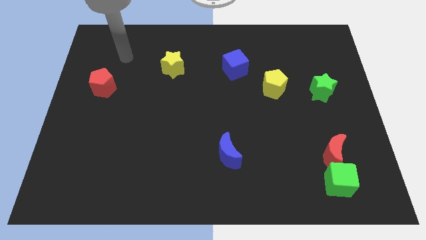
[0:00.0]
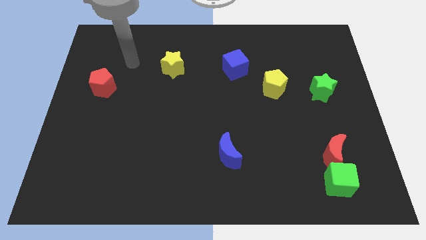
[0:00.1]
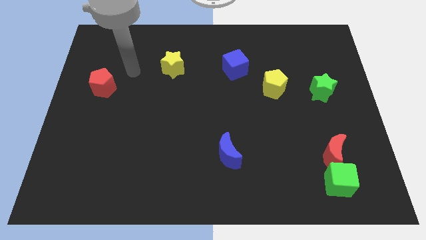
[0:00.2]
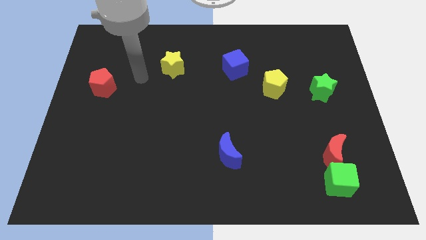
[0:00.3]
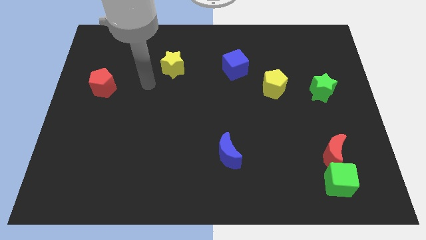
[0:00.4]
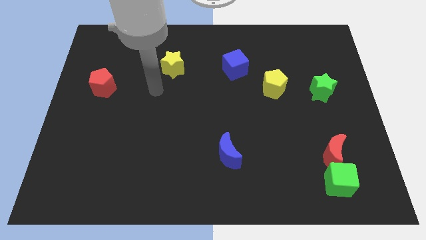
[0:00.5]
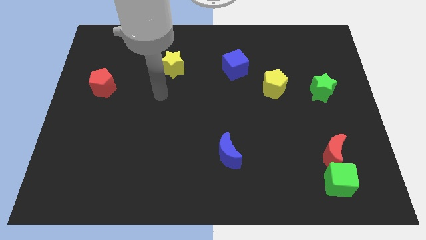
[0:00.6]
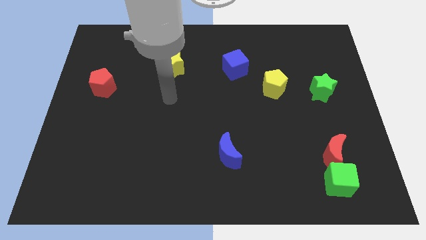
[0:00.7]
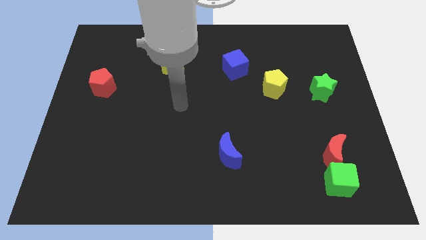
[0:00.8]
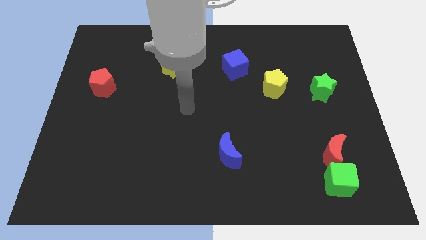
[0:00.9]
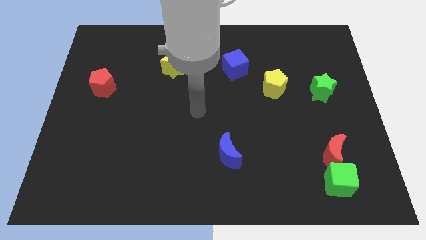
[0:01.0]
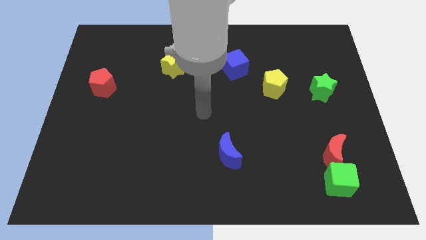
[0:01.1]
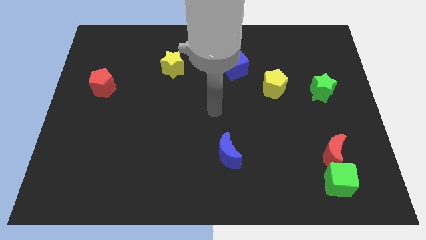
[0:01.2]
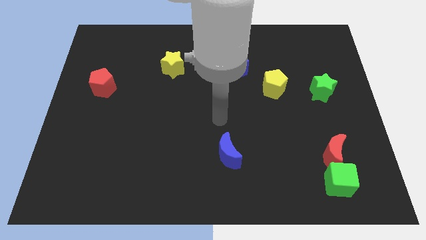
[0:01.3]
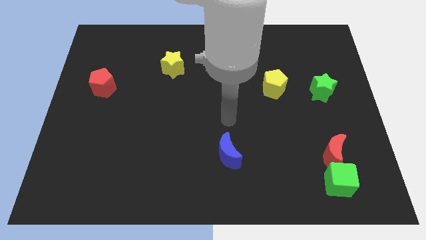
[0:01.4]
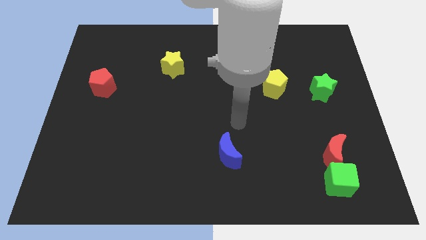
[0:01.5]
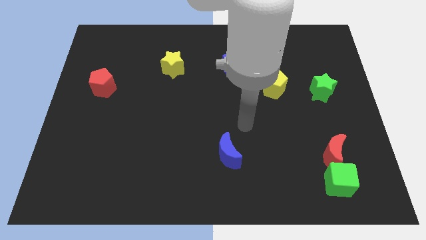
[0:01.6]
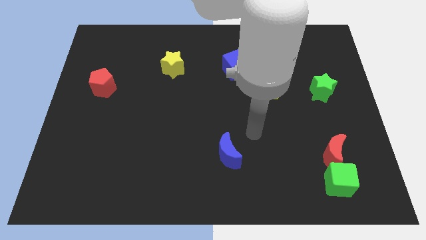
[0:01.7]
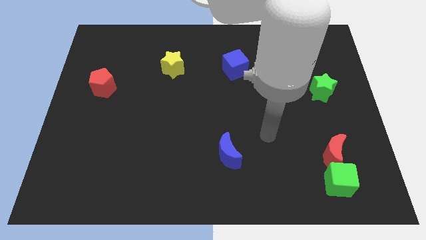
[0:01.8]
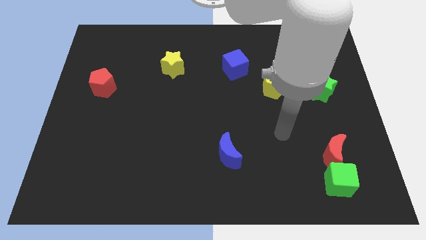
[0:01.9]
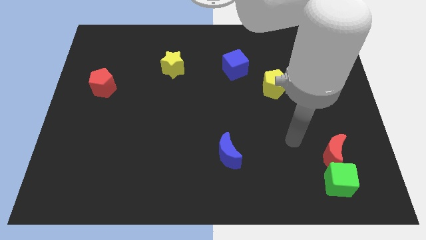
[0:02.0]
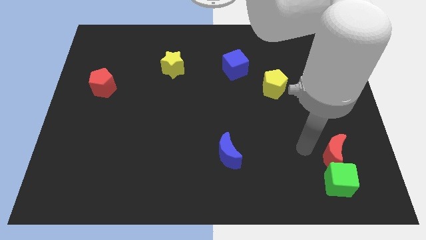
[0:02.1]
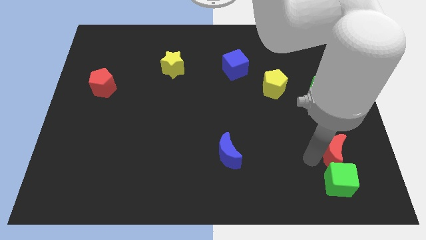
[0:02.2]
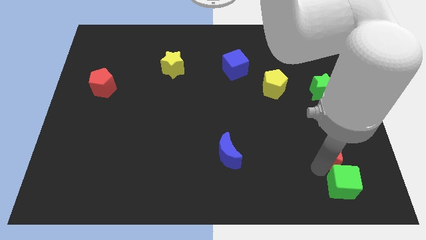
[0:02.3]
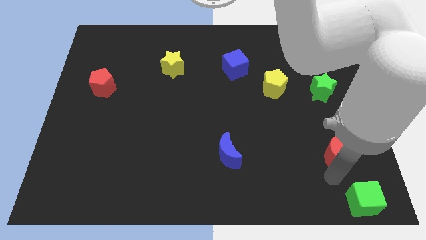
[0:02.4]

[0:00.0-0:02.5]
move the red moon away from the green cube

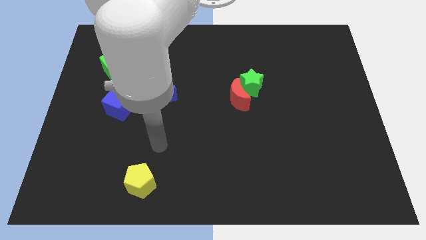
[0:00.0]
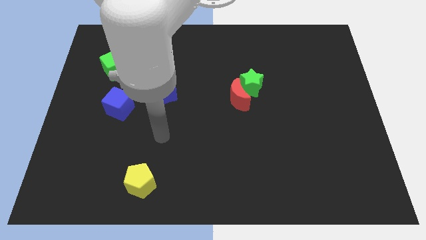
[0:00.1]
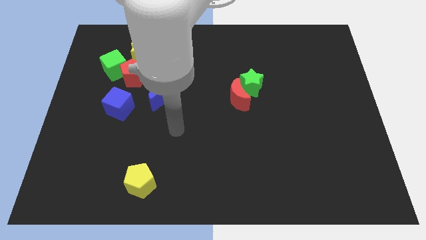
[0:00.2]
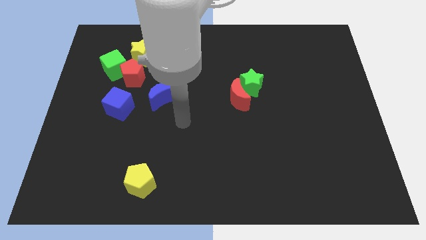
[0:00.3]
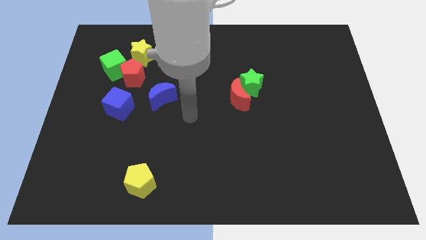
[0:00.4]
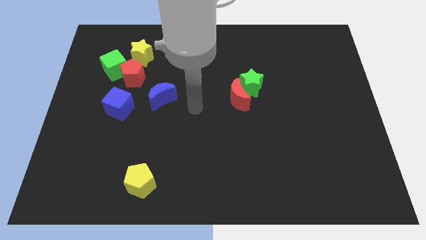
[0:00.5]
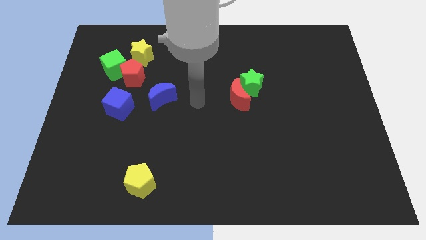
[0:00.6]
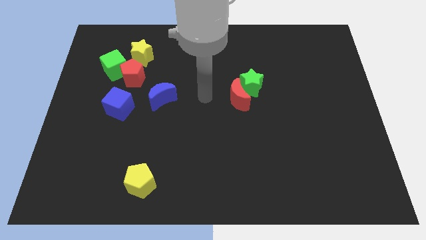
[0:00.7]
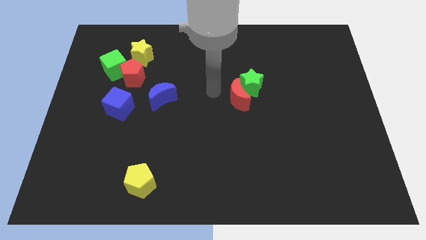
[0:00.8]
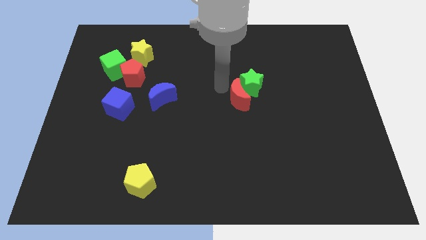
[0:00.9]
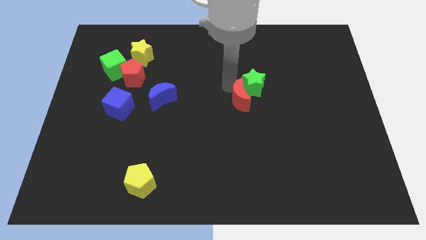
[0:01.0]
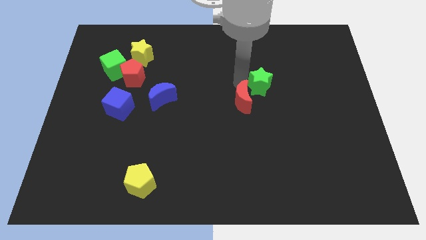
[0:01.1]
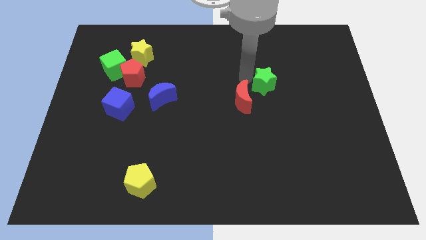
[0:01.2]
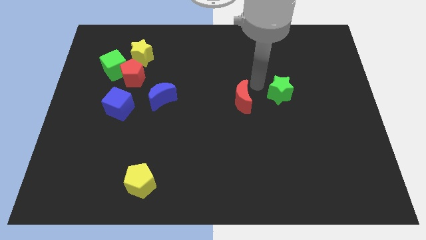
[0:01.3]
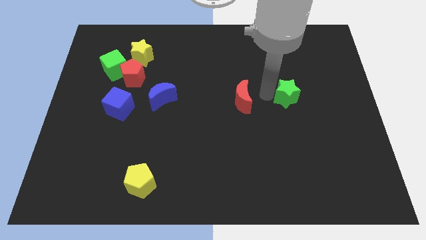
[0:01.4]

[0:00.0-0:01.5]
move the red moon away from the green star

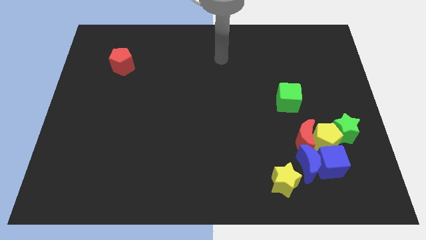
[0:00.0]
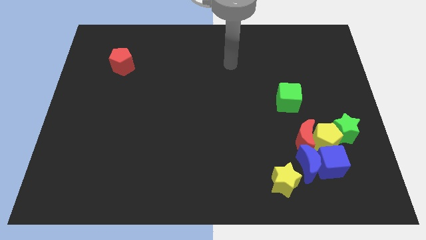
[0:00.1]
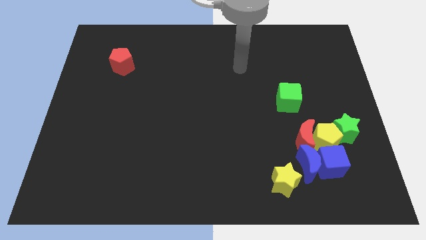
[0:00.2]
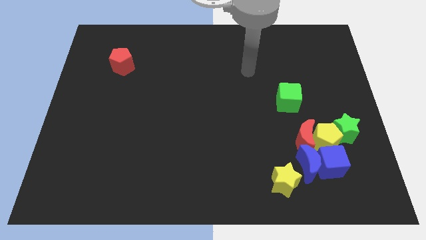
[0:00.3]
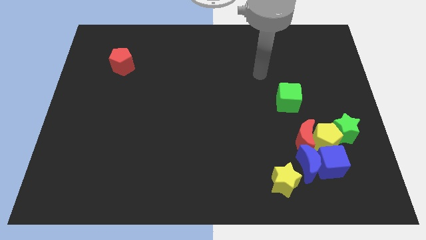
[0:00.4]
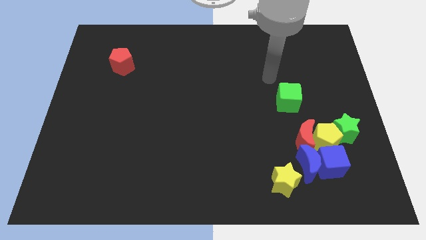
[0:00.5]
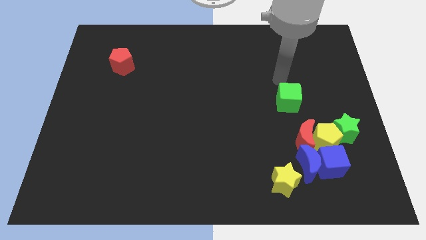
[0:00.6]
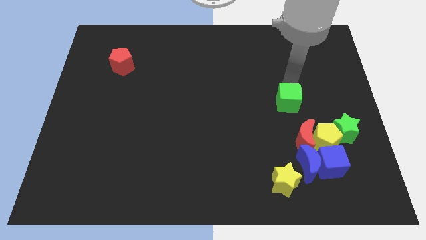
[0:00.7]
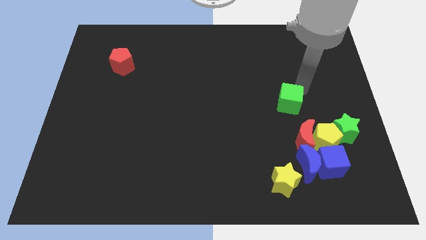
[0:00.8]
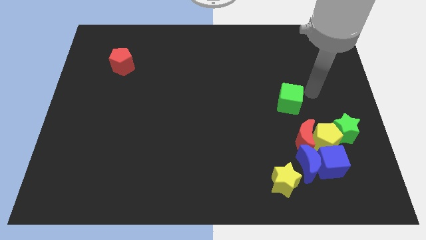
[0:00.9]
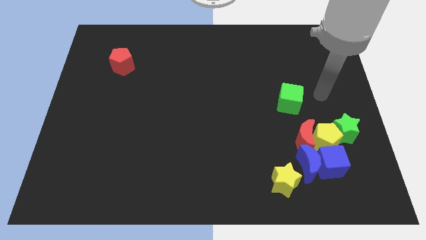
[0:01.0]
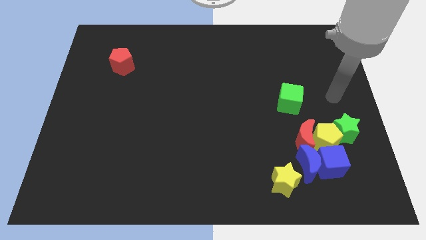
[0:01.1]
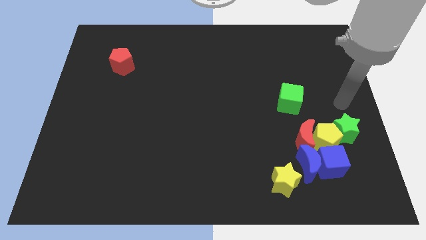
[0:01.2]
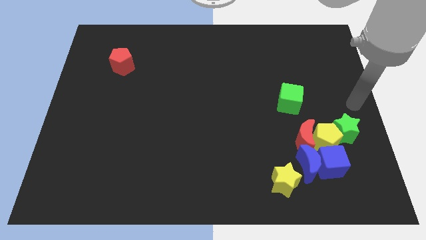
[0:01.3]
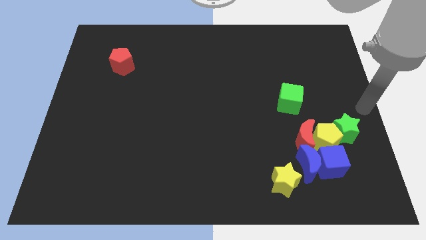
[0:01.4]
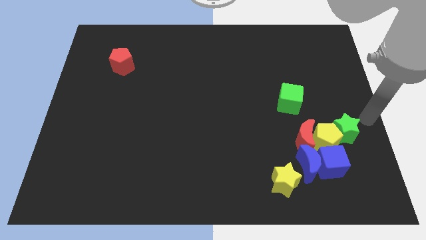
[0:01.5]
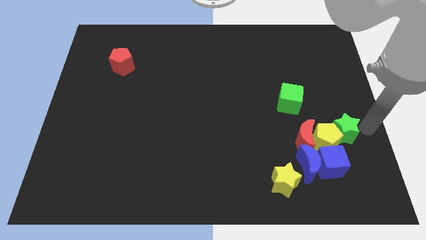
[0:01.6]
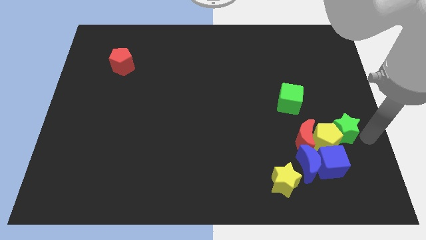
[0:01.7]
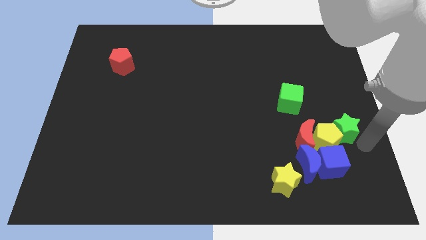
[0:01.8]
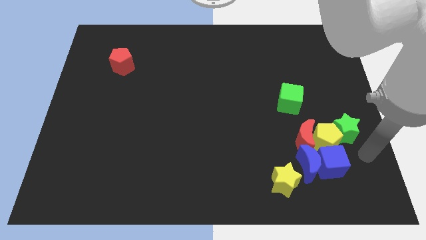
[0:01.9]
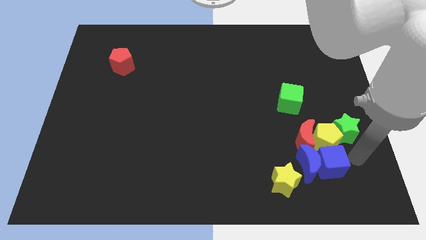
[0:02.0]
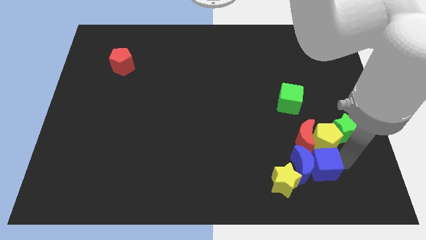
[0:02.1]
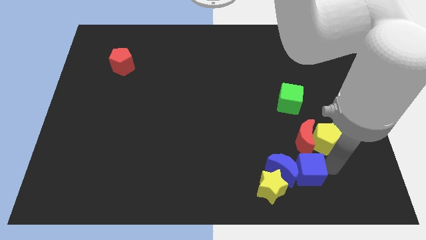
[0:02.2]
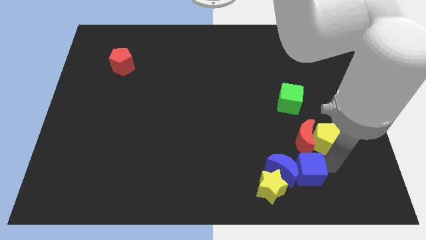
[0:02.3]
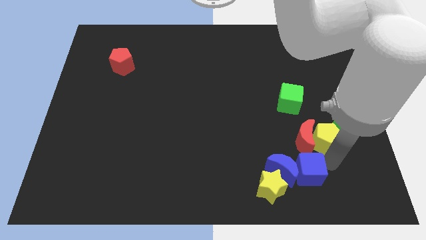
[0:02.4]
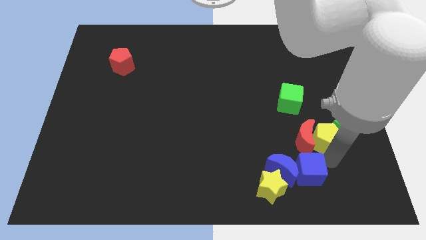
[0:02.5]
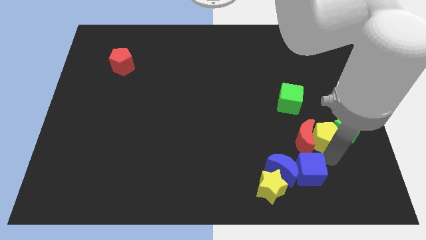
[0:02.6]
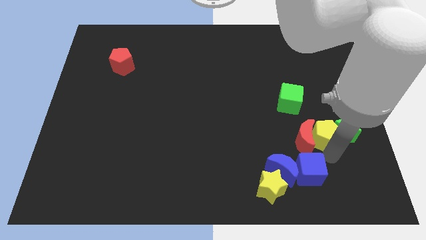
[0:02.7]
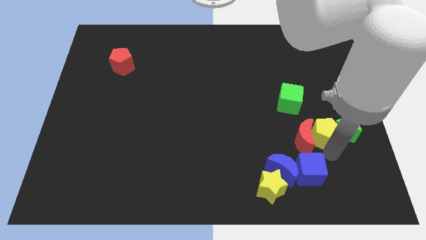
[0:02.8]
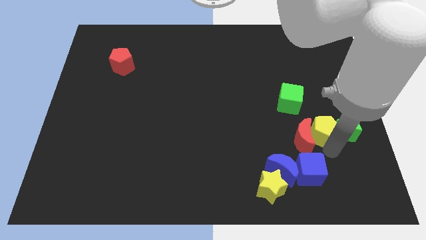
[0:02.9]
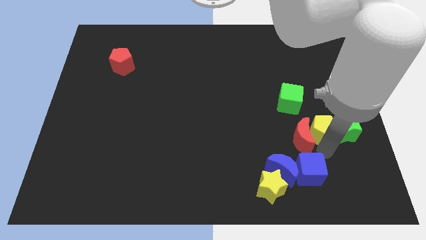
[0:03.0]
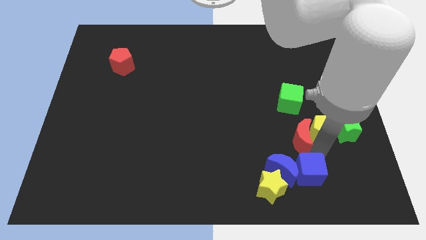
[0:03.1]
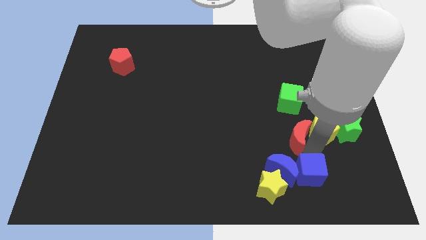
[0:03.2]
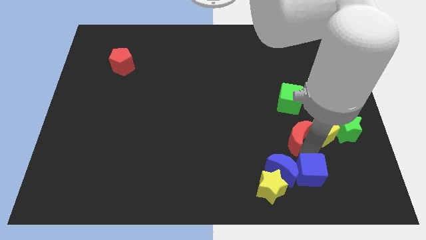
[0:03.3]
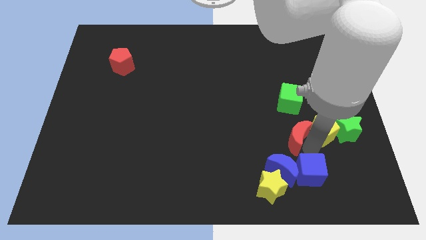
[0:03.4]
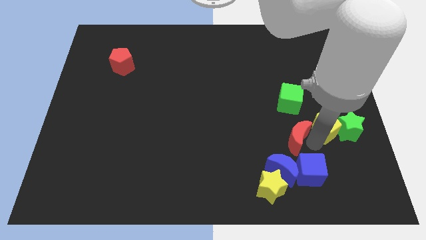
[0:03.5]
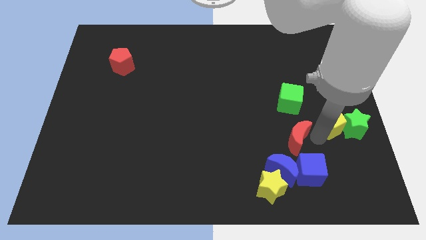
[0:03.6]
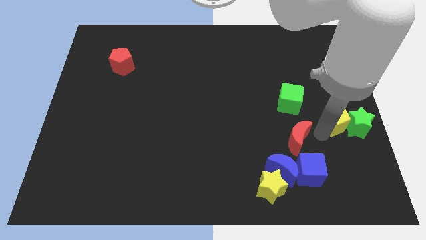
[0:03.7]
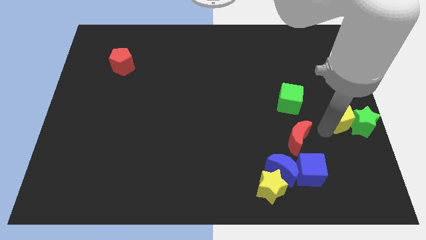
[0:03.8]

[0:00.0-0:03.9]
separate the yellow pentagon from the group

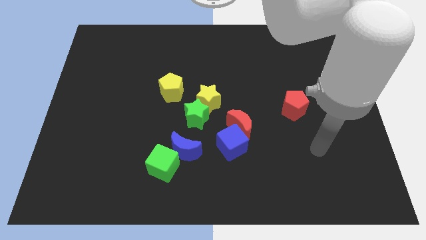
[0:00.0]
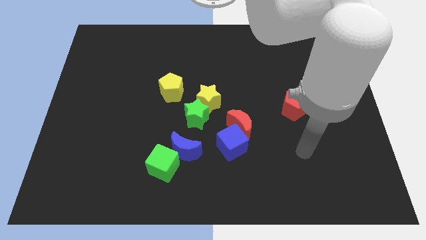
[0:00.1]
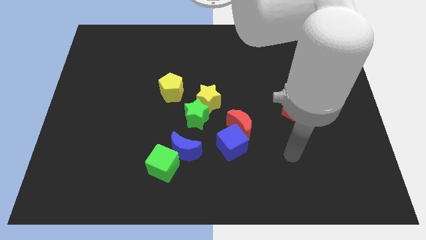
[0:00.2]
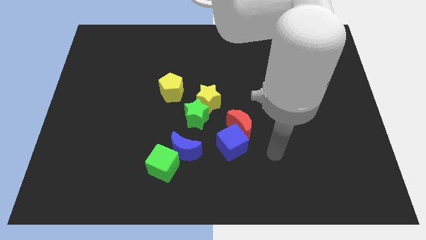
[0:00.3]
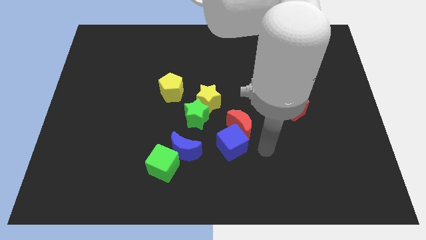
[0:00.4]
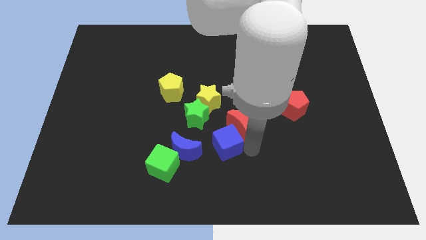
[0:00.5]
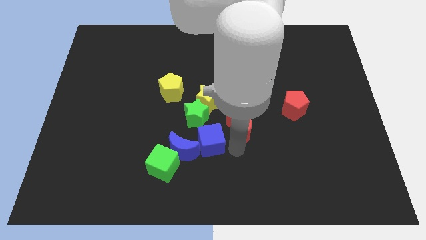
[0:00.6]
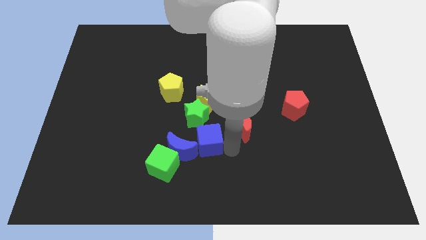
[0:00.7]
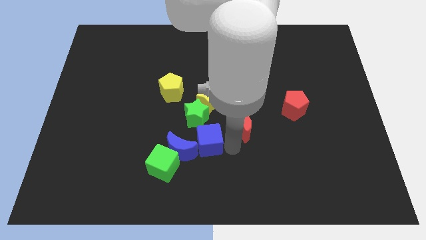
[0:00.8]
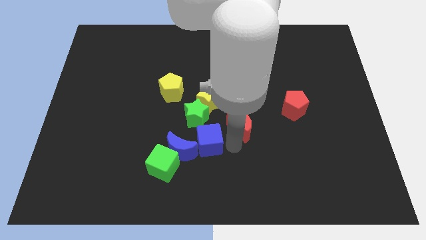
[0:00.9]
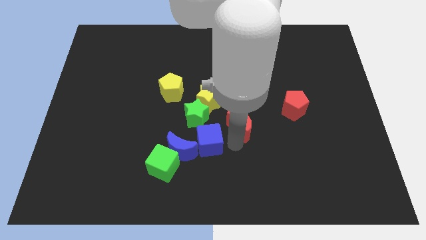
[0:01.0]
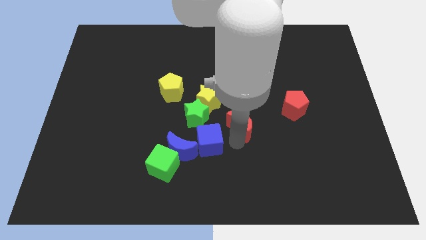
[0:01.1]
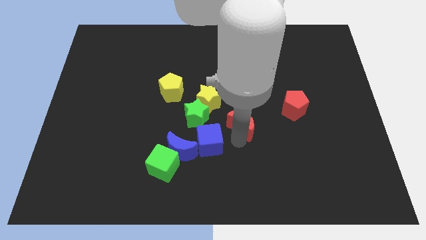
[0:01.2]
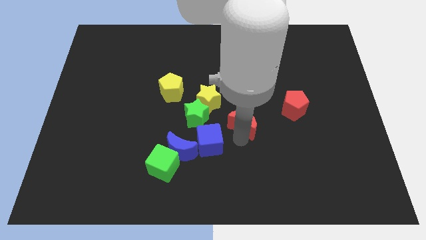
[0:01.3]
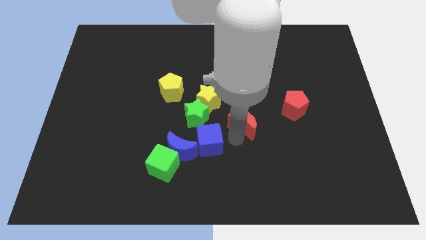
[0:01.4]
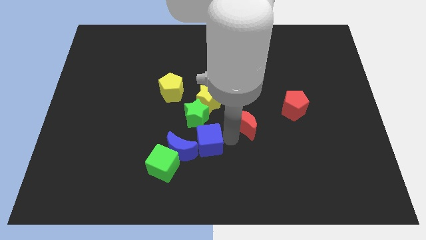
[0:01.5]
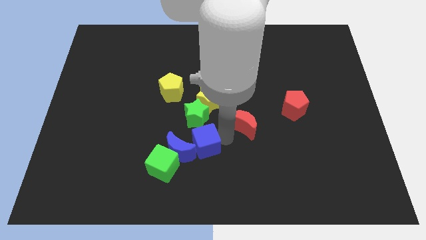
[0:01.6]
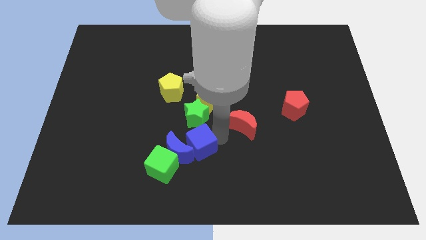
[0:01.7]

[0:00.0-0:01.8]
move the red moon away from the blue cube
